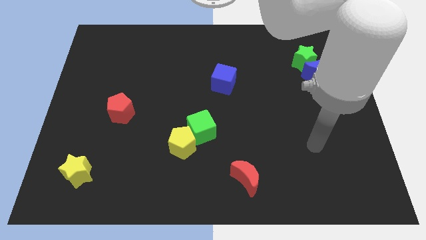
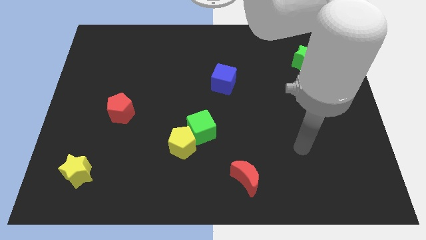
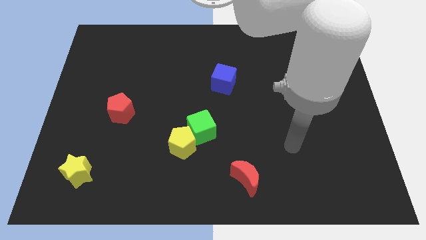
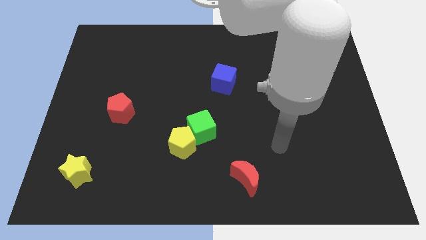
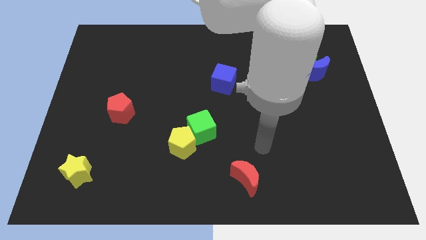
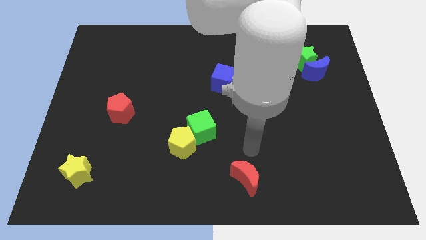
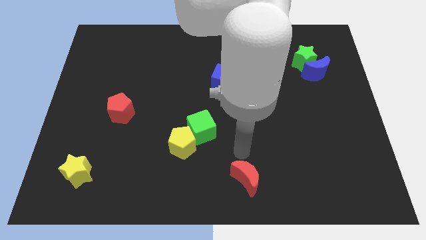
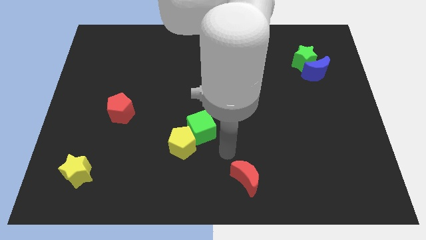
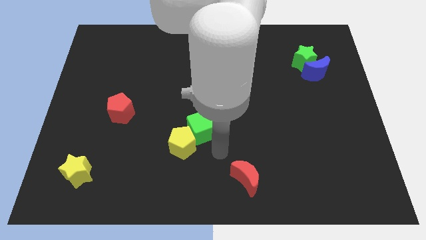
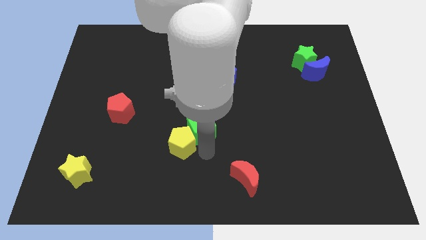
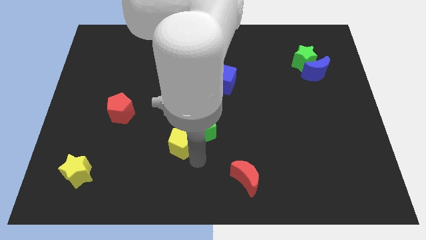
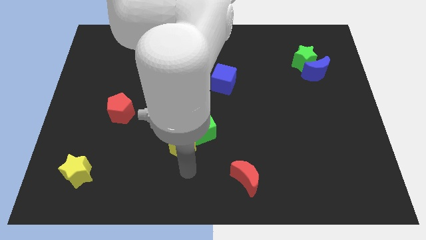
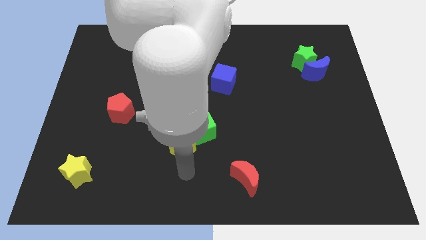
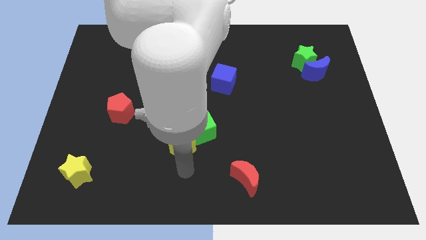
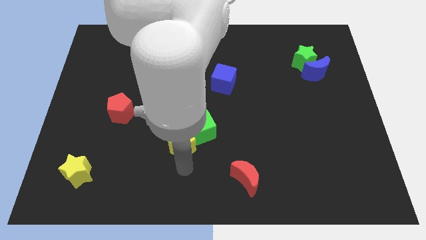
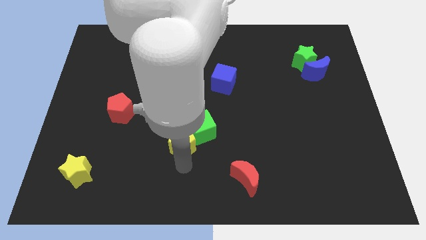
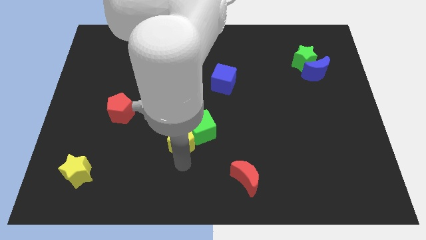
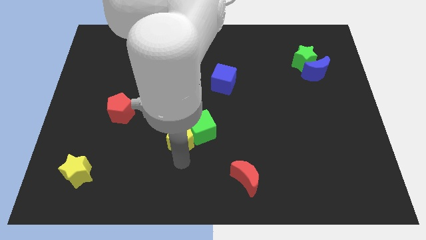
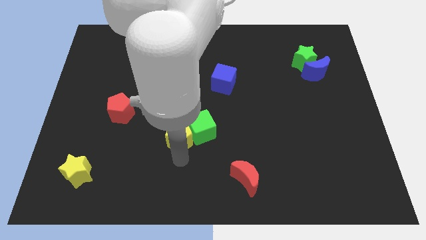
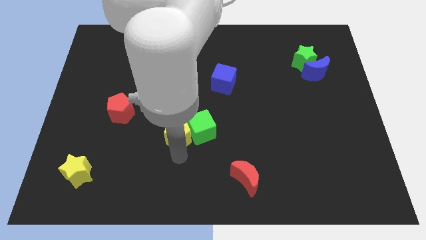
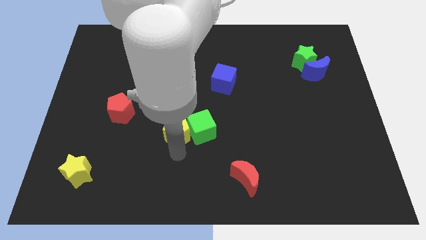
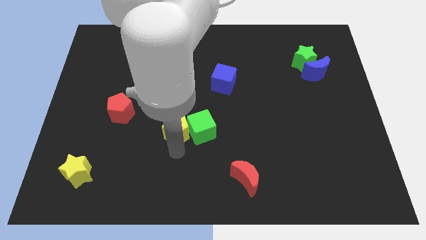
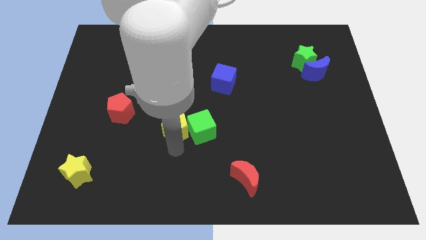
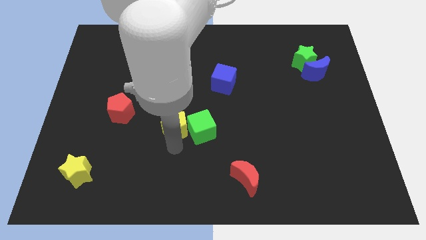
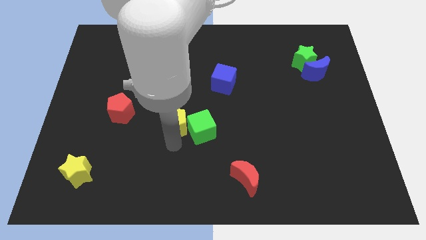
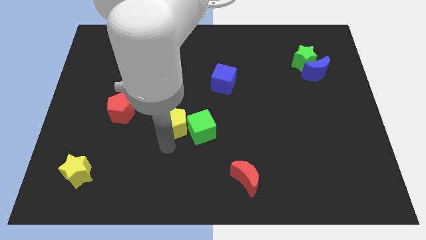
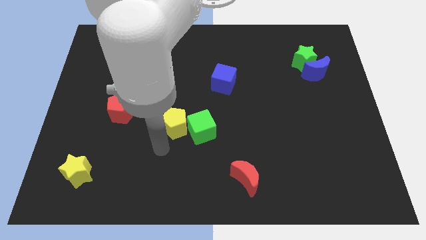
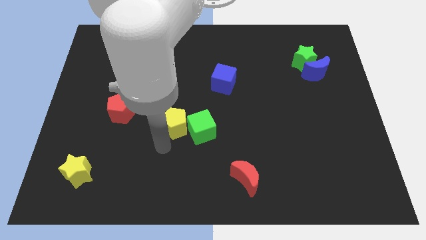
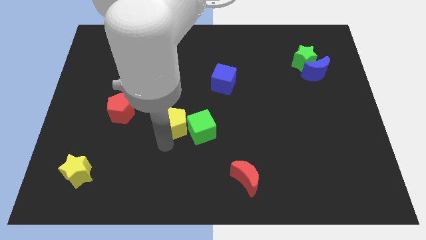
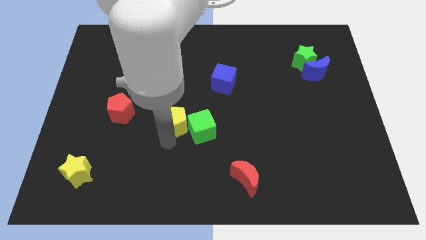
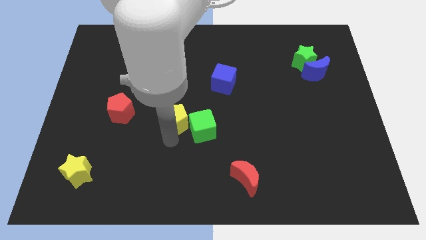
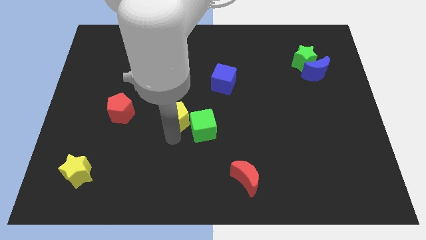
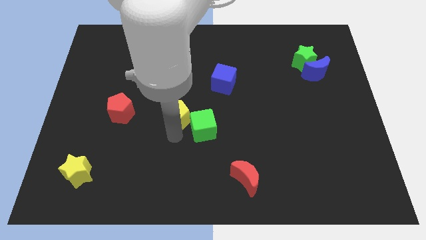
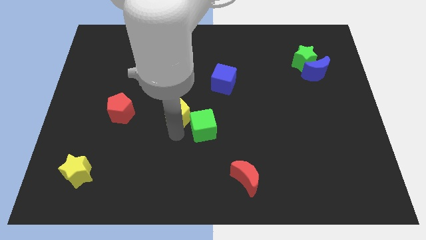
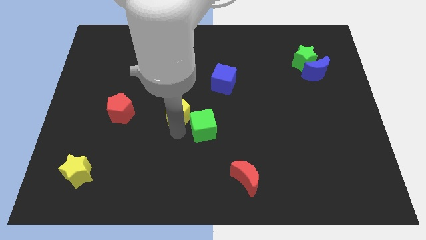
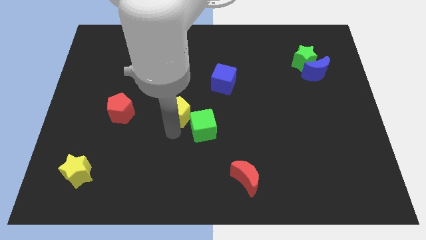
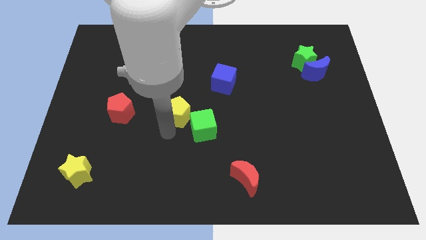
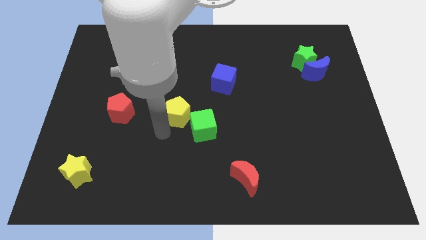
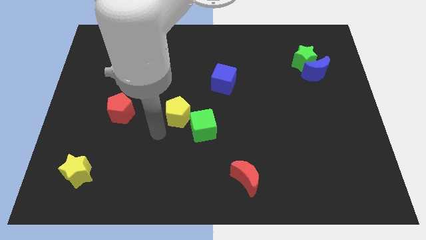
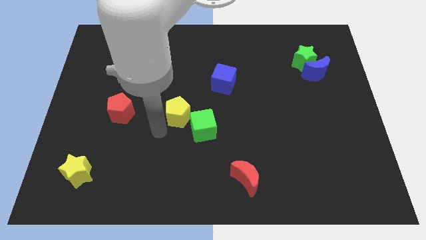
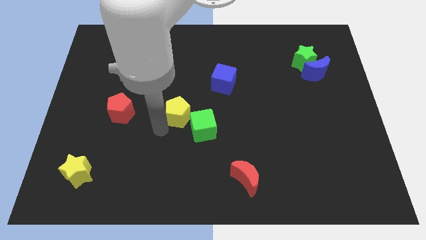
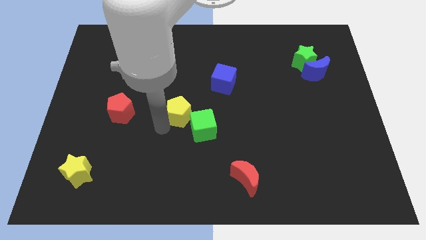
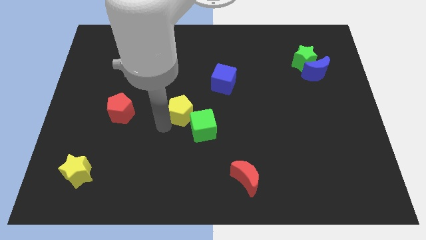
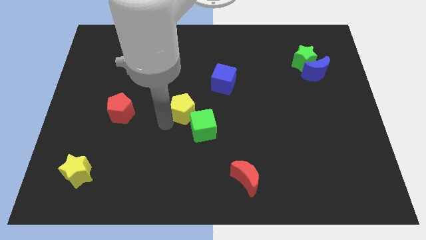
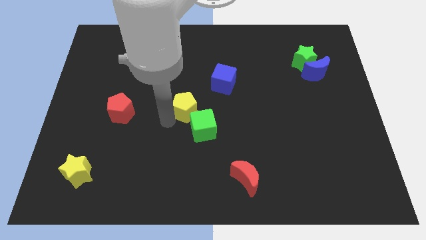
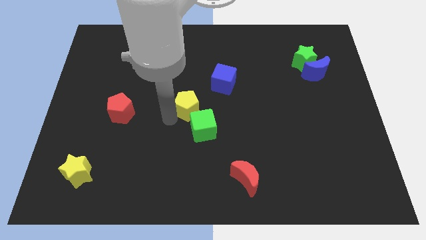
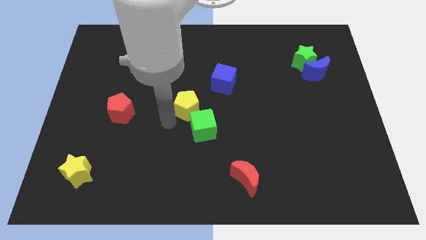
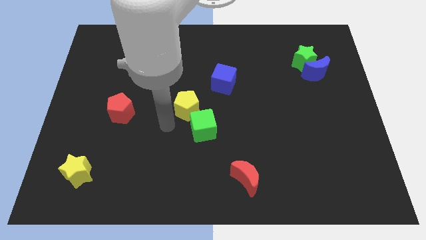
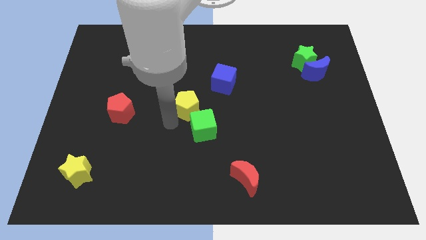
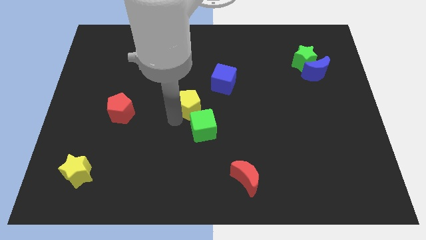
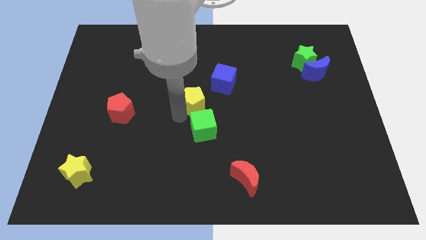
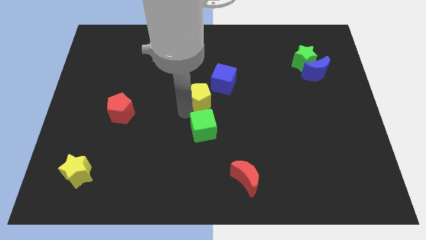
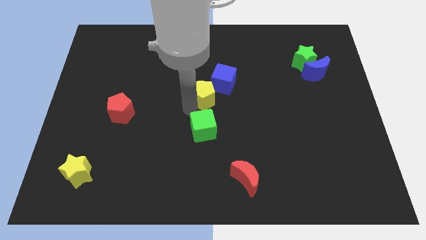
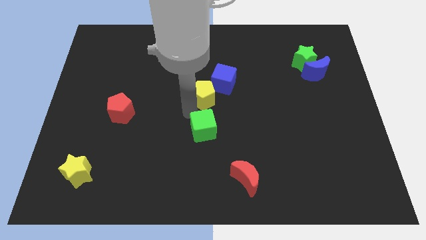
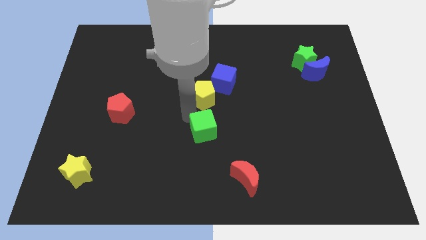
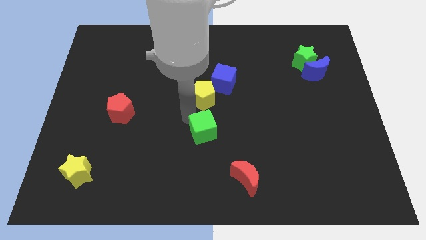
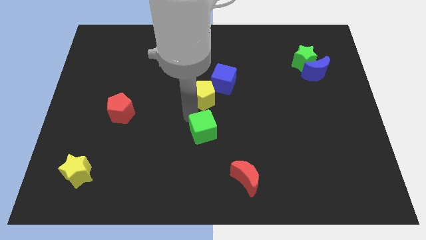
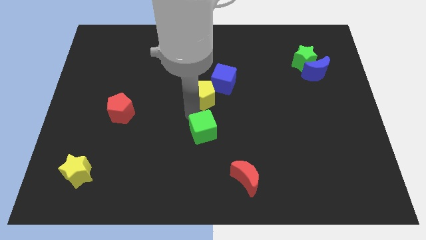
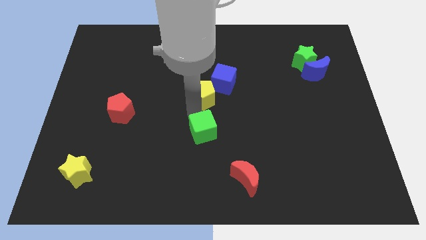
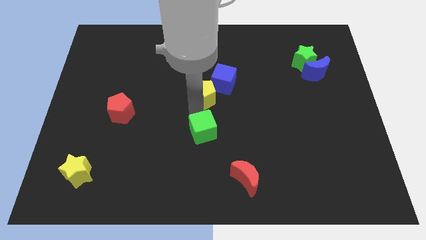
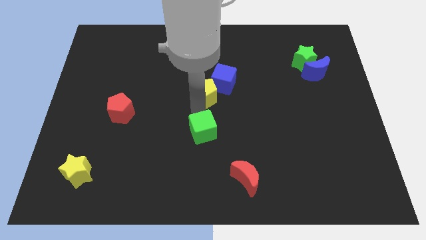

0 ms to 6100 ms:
move the yellow pentagon next to the blue cube

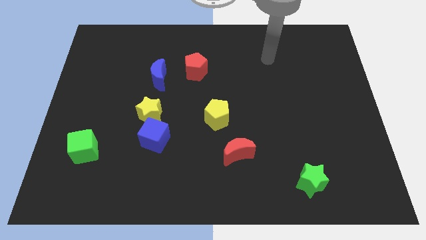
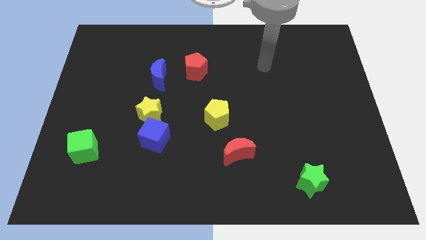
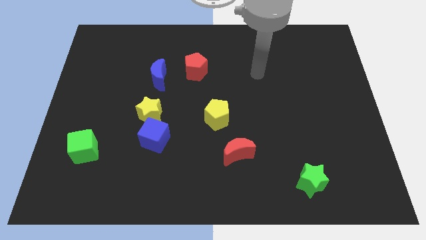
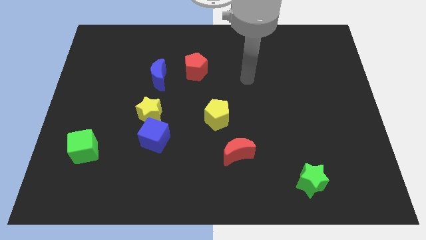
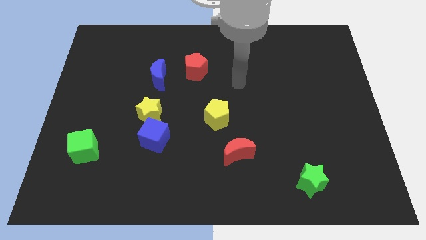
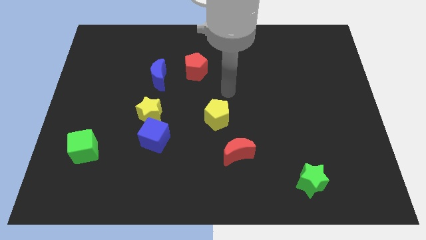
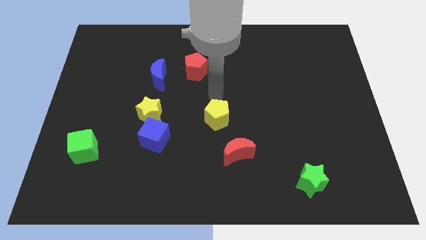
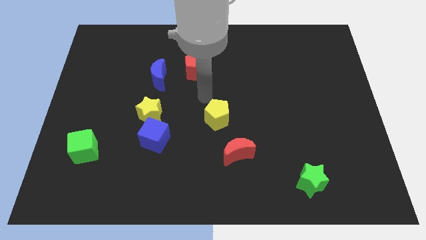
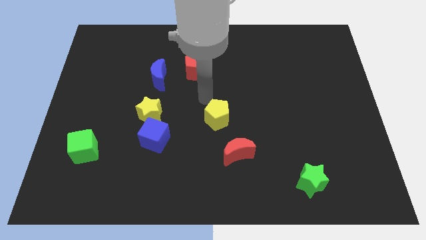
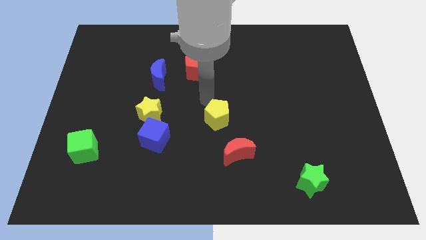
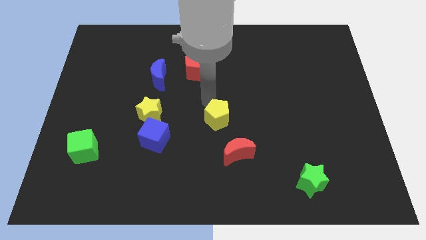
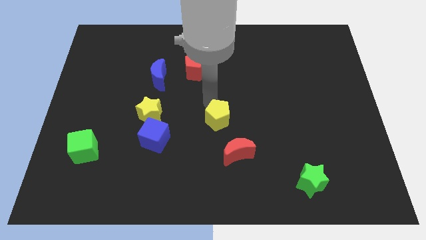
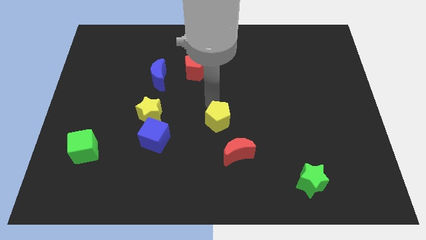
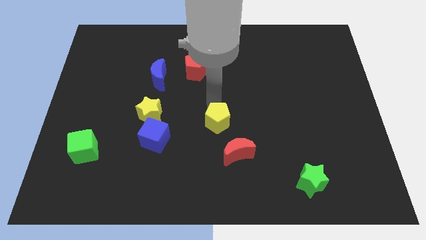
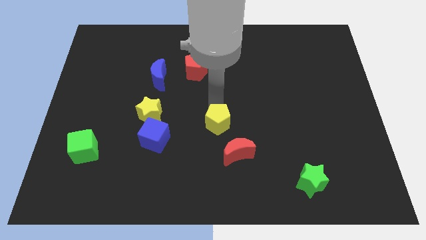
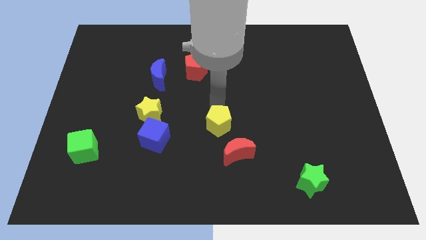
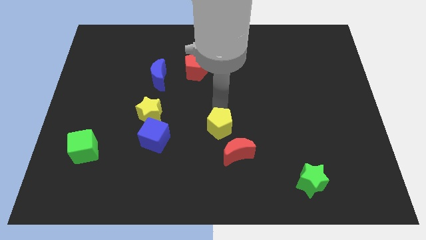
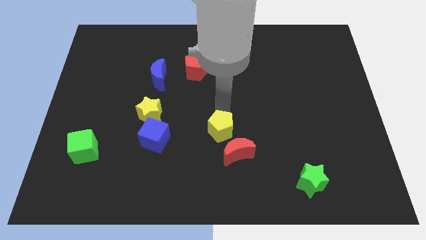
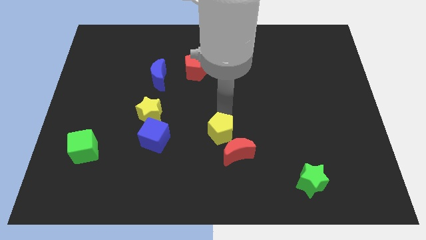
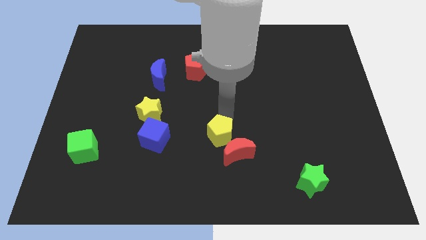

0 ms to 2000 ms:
put the yellow pentagon next to the red moon
